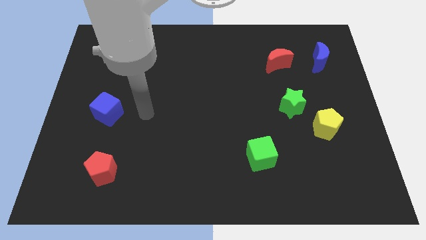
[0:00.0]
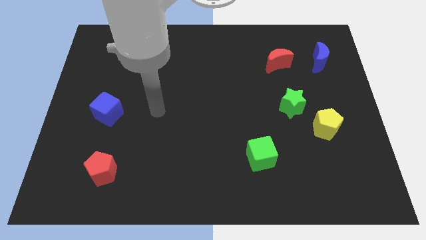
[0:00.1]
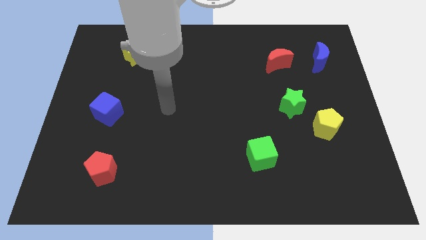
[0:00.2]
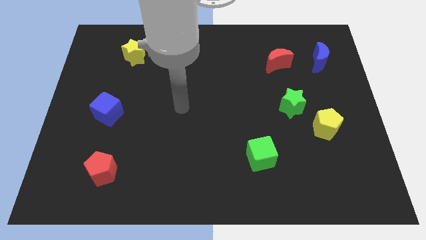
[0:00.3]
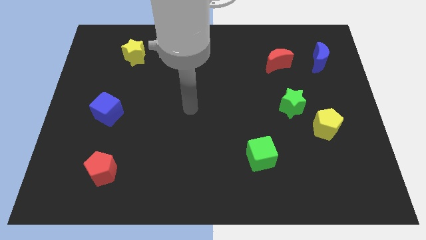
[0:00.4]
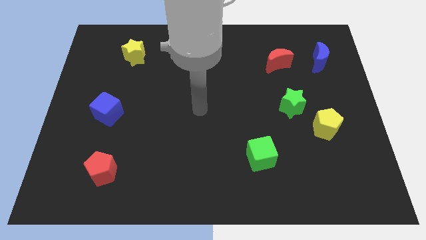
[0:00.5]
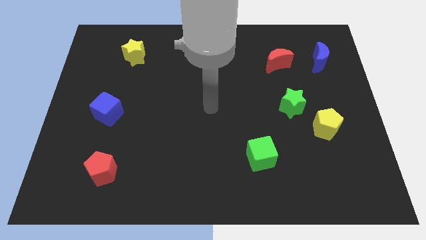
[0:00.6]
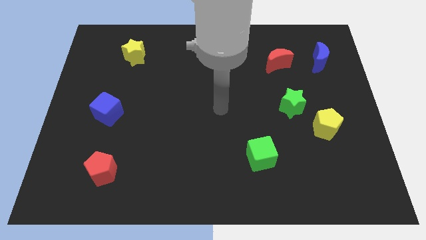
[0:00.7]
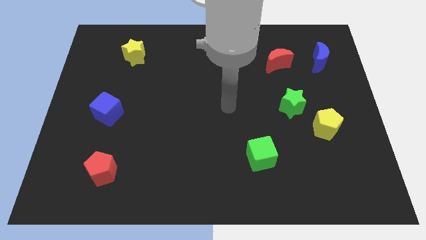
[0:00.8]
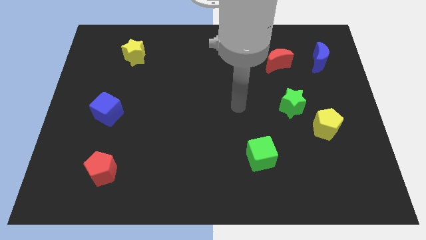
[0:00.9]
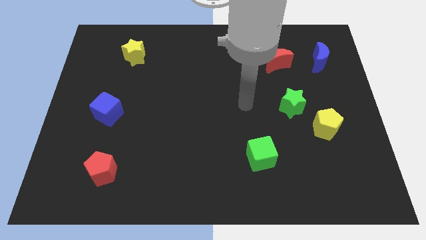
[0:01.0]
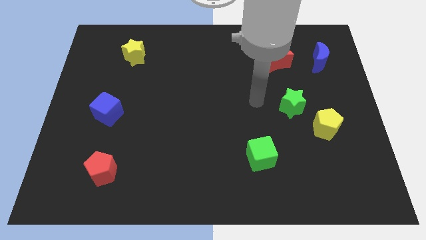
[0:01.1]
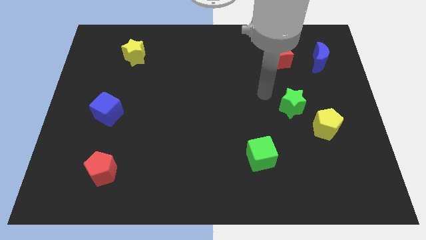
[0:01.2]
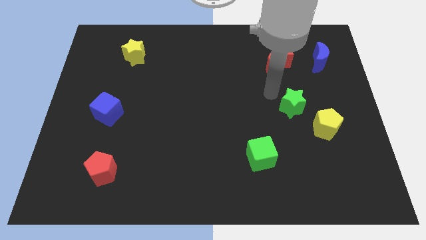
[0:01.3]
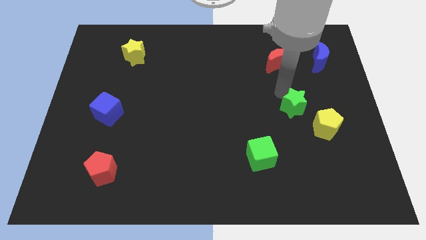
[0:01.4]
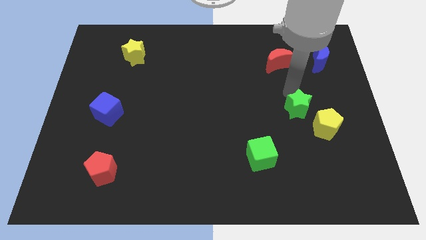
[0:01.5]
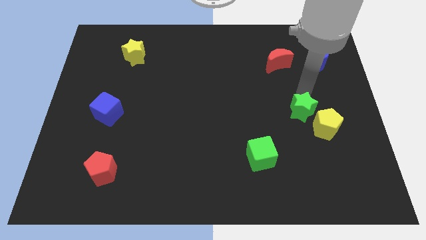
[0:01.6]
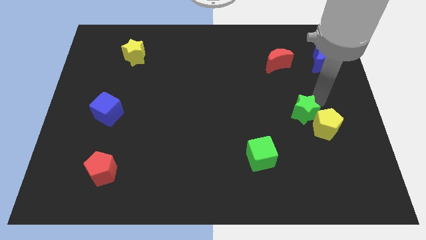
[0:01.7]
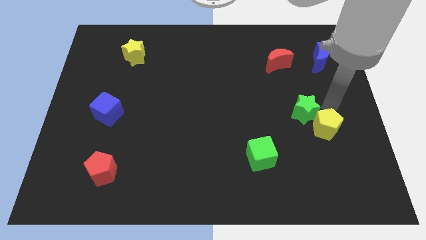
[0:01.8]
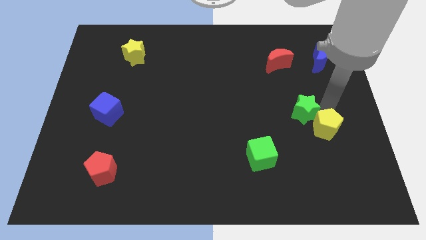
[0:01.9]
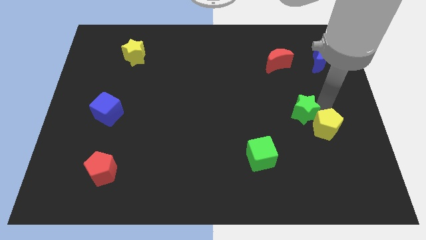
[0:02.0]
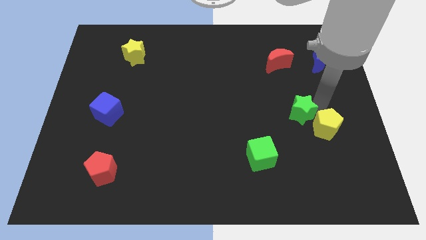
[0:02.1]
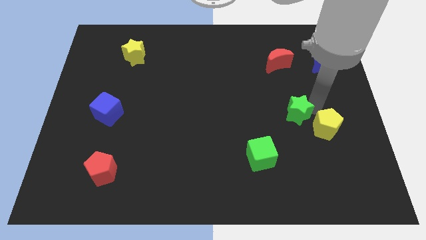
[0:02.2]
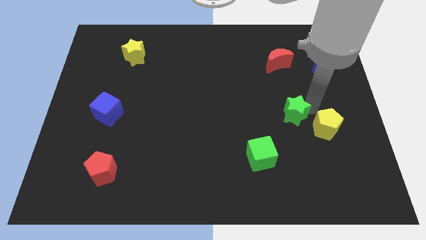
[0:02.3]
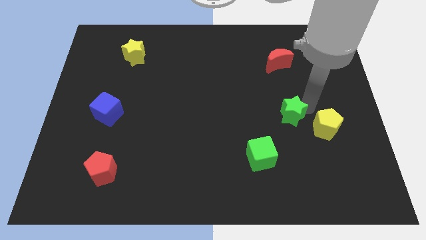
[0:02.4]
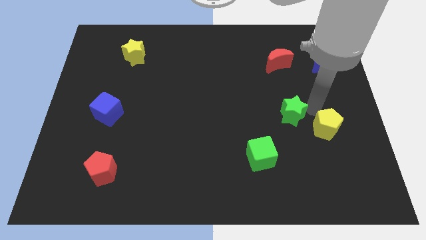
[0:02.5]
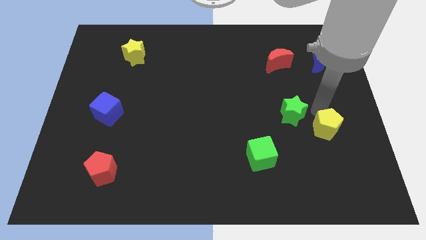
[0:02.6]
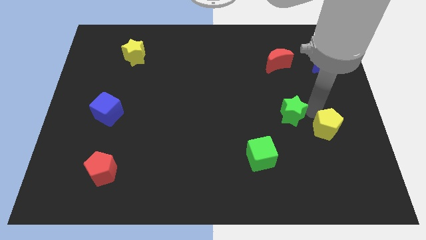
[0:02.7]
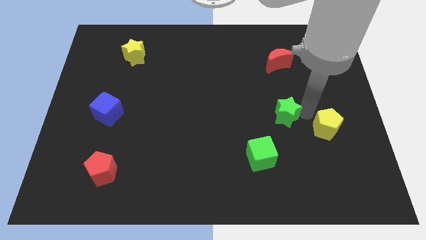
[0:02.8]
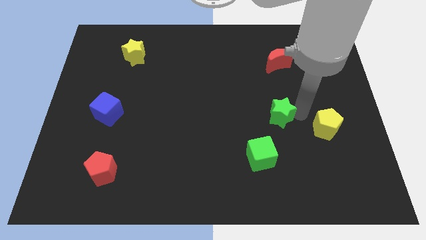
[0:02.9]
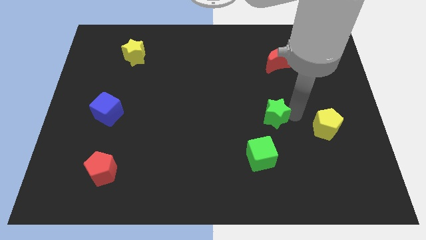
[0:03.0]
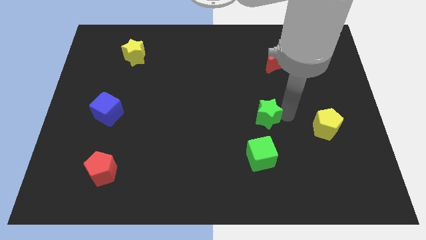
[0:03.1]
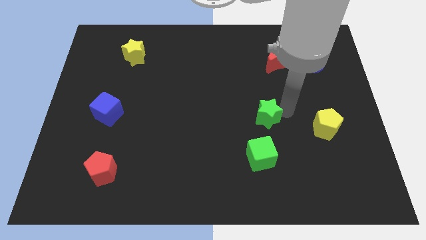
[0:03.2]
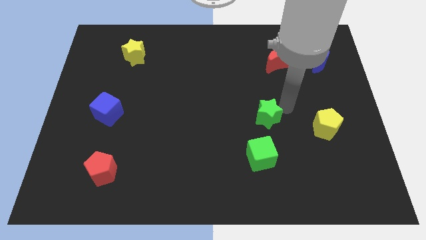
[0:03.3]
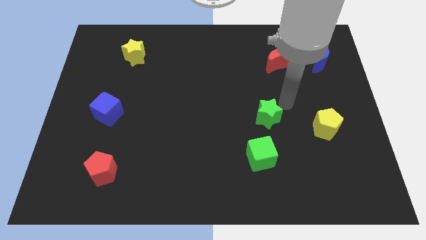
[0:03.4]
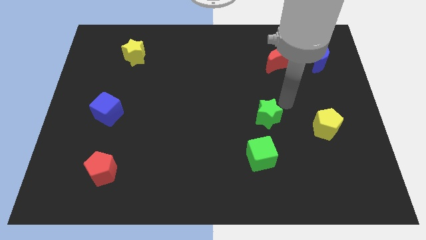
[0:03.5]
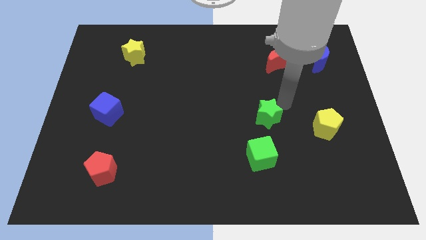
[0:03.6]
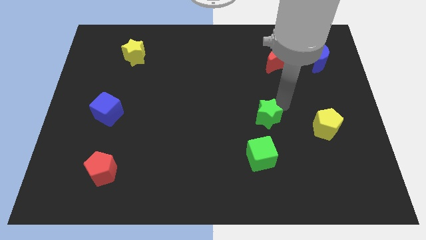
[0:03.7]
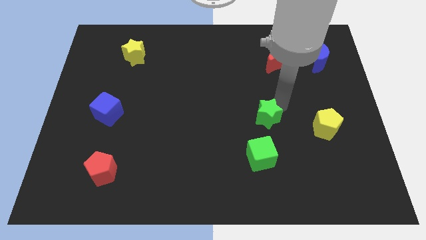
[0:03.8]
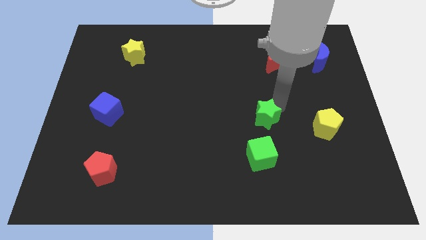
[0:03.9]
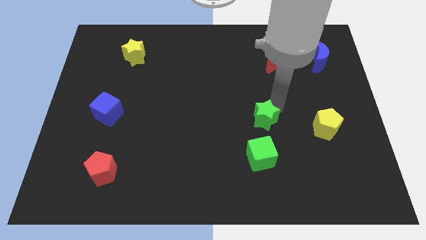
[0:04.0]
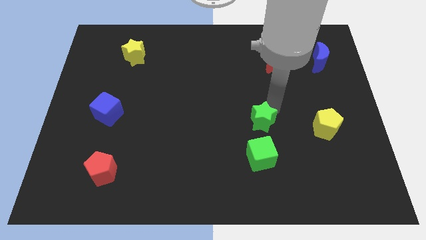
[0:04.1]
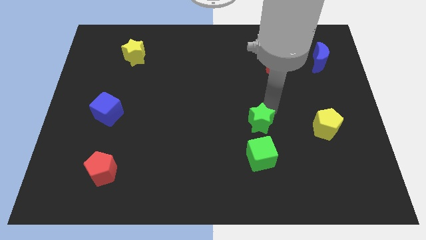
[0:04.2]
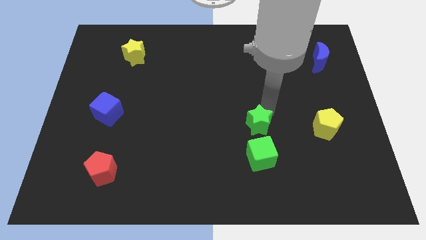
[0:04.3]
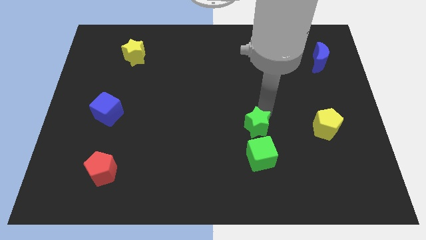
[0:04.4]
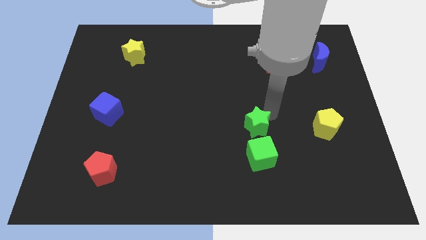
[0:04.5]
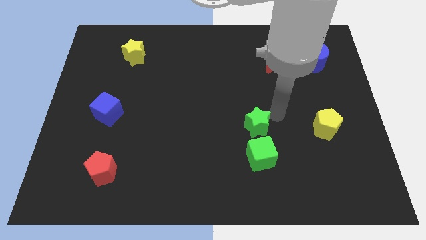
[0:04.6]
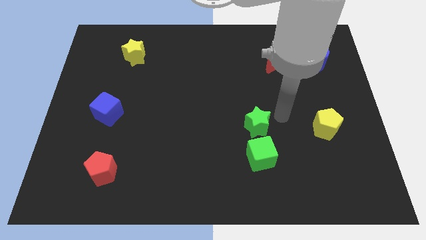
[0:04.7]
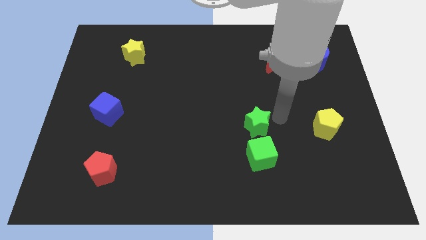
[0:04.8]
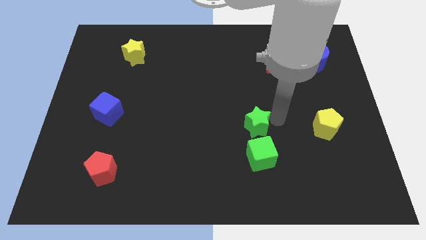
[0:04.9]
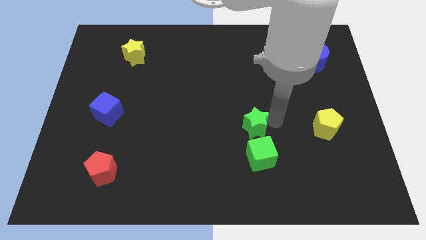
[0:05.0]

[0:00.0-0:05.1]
slide the green star to the top left side of the green cube

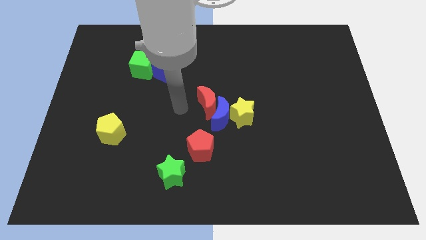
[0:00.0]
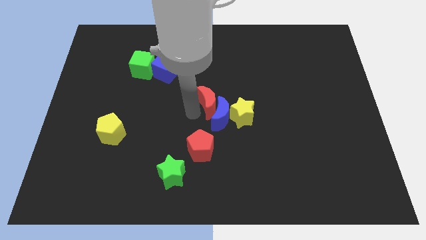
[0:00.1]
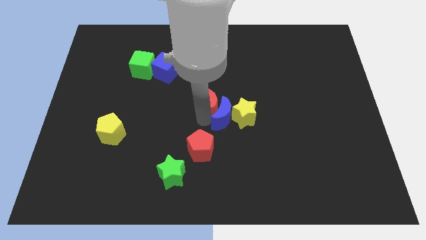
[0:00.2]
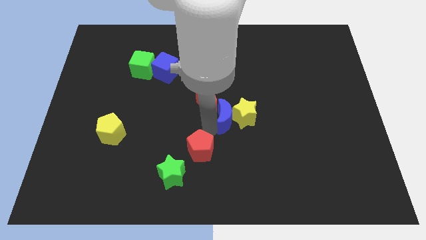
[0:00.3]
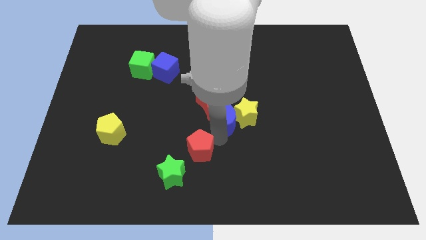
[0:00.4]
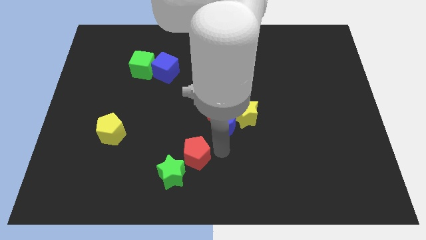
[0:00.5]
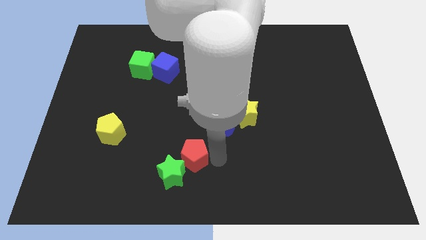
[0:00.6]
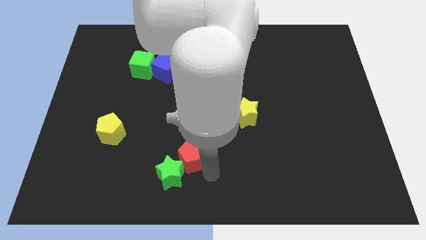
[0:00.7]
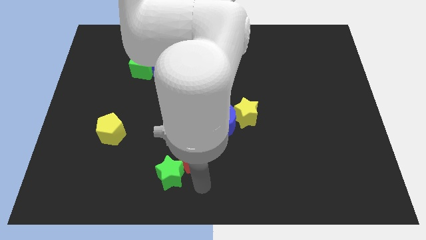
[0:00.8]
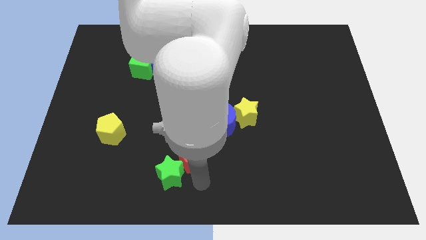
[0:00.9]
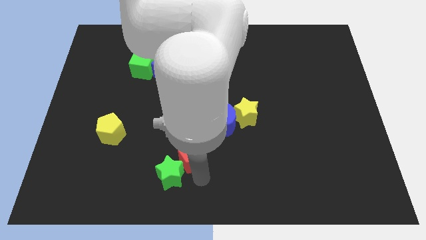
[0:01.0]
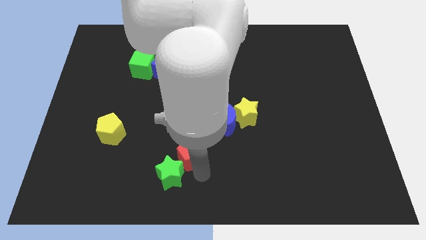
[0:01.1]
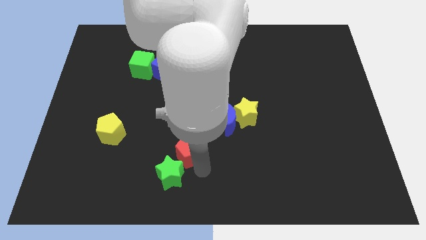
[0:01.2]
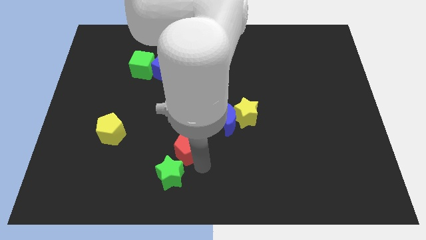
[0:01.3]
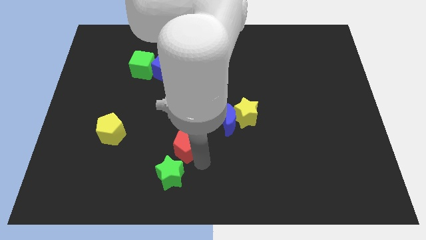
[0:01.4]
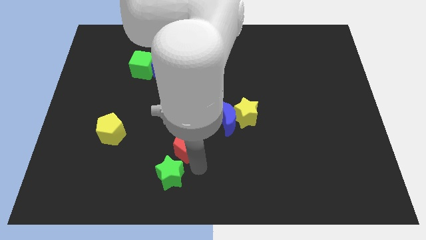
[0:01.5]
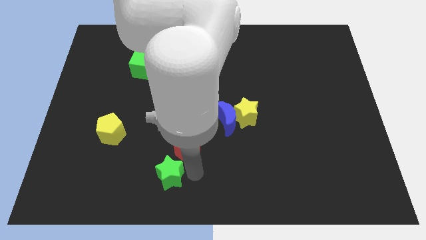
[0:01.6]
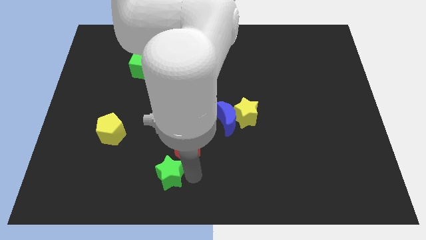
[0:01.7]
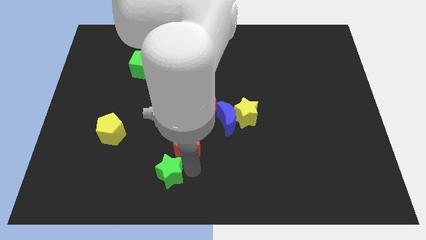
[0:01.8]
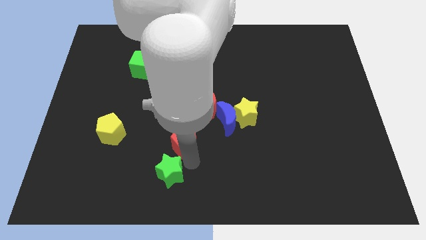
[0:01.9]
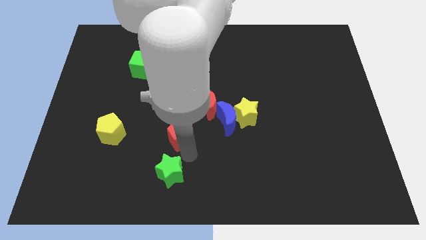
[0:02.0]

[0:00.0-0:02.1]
slide the red pentagon diagonally down and to the left of the red moon
